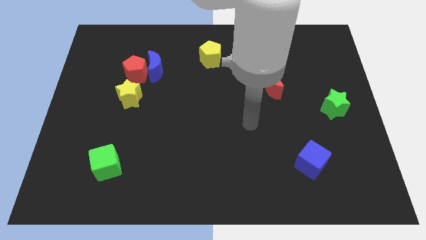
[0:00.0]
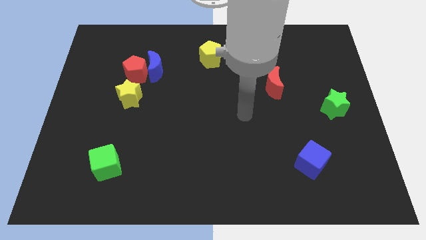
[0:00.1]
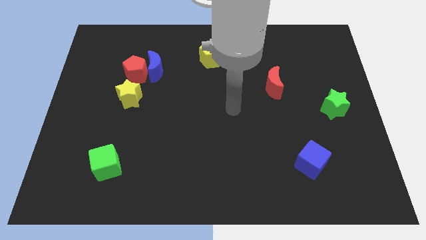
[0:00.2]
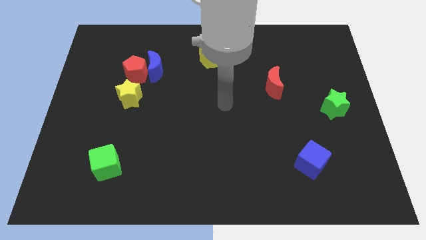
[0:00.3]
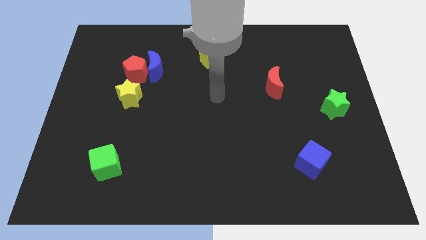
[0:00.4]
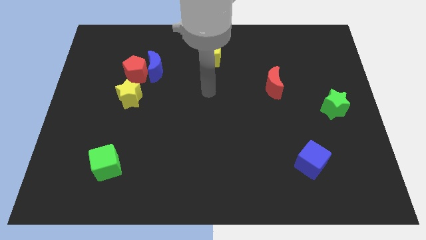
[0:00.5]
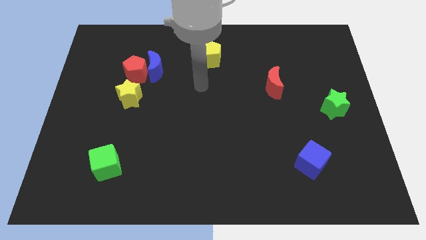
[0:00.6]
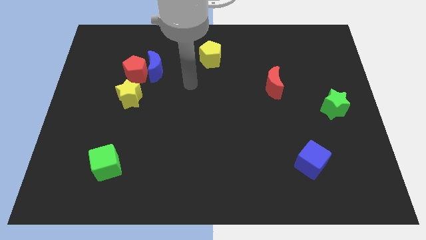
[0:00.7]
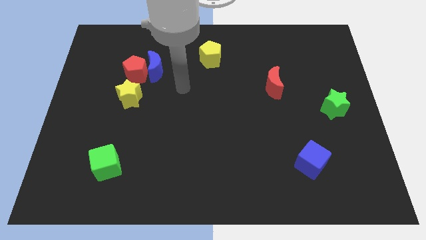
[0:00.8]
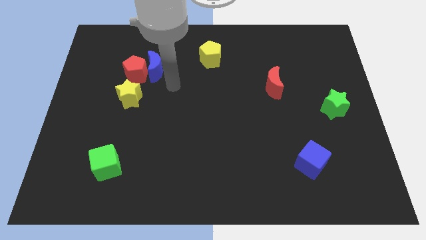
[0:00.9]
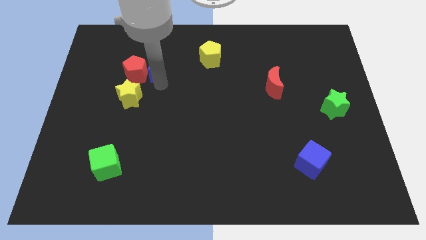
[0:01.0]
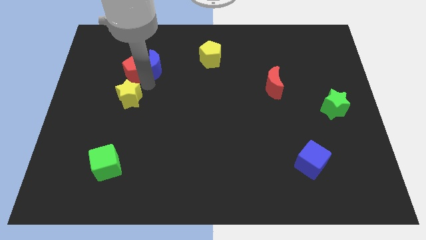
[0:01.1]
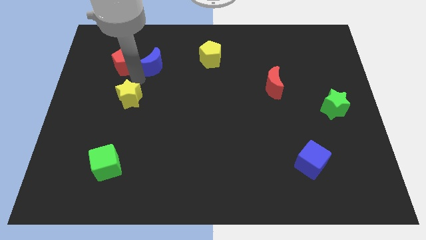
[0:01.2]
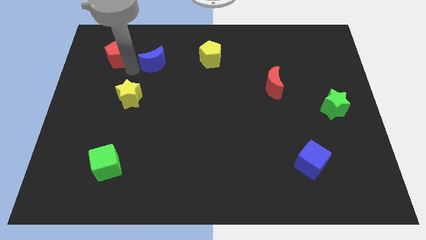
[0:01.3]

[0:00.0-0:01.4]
pull the blue moon apart from the red pentagon

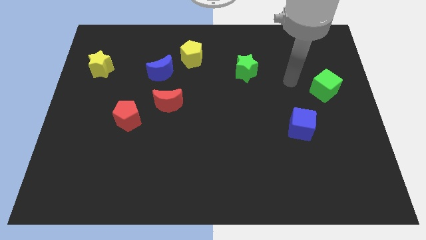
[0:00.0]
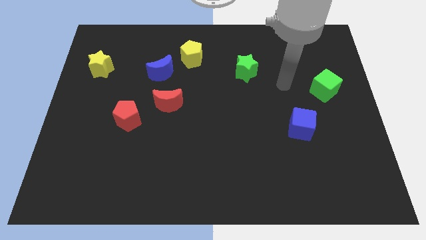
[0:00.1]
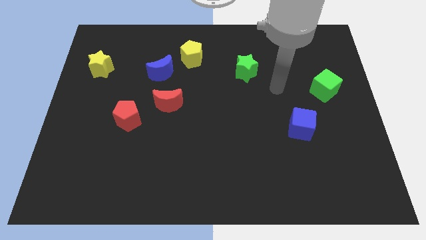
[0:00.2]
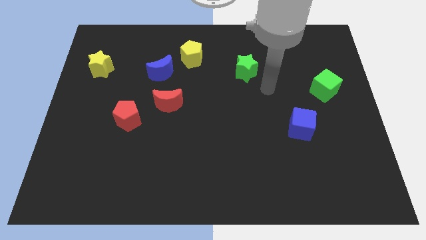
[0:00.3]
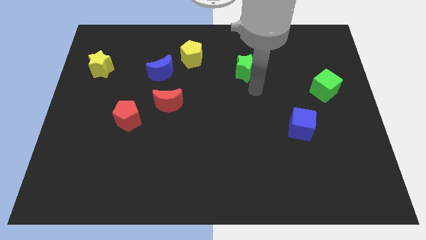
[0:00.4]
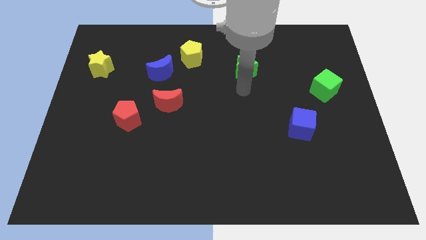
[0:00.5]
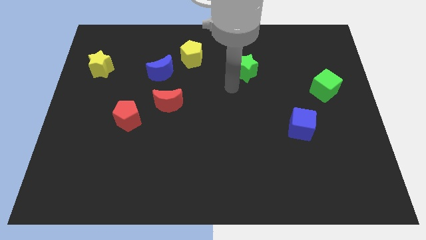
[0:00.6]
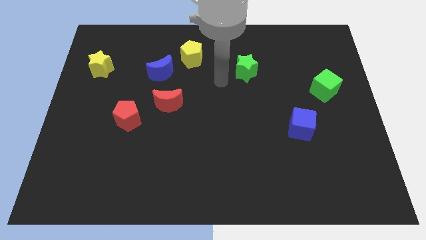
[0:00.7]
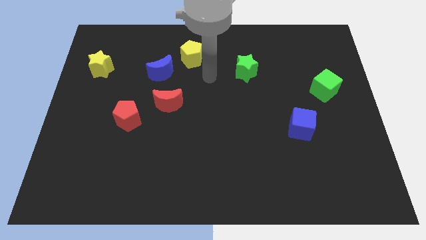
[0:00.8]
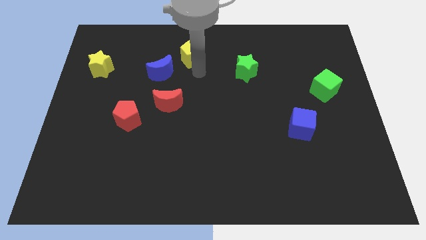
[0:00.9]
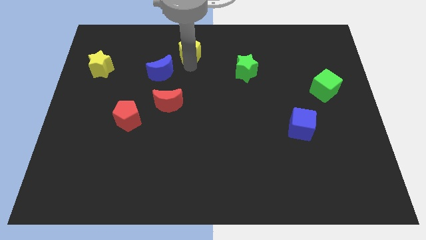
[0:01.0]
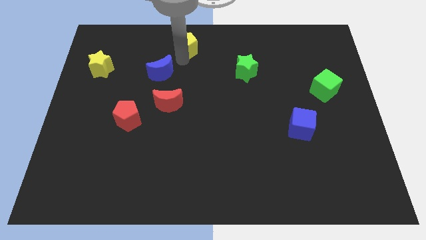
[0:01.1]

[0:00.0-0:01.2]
separate the blue moon from the yellow pentagon

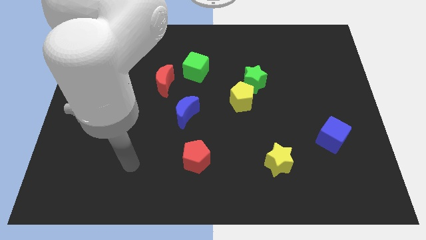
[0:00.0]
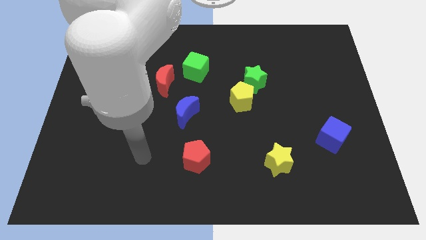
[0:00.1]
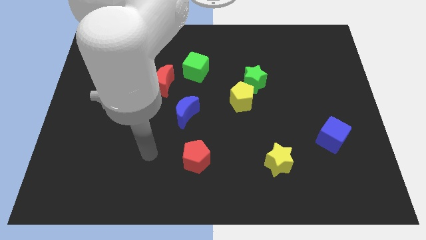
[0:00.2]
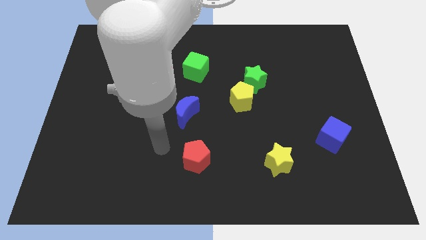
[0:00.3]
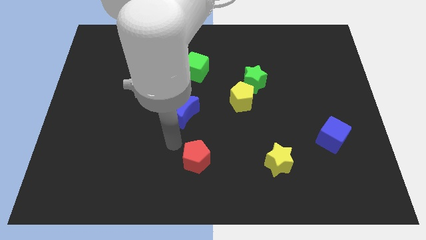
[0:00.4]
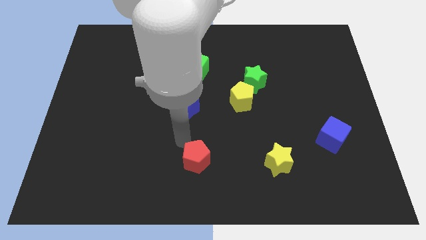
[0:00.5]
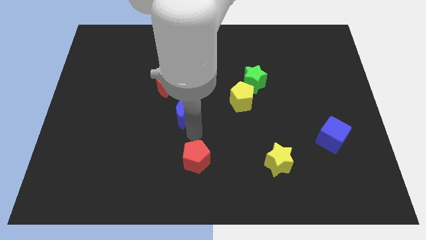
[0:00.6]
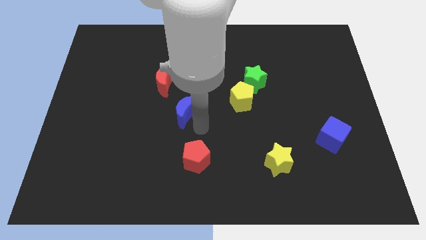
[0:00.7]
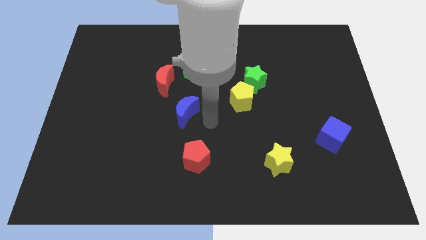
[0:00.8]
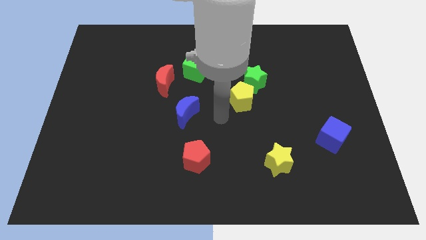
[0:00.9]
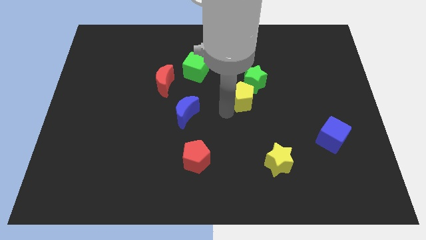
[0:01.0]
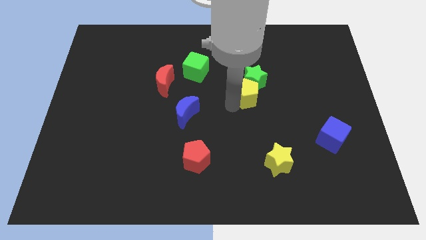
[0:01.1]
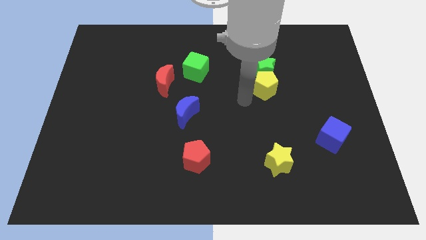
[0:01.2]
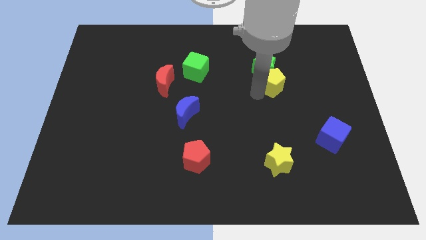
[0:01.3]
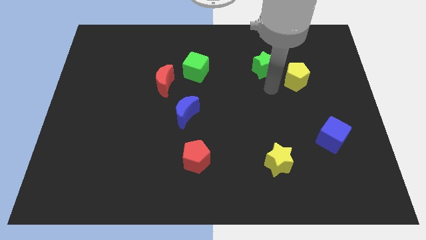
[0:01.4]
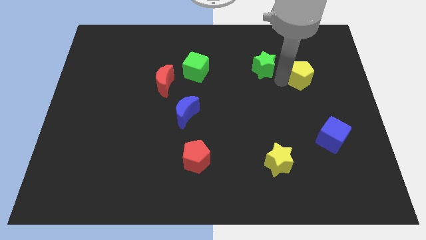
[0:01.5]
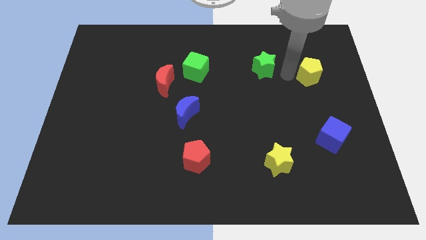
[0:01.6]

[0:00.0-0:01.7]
pull the green star apart from the yellow pentagon

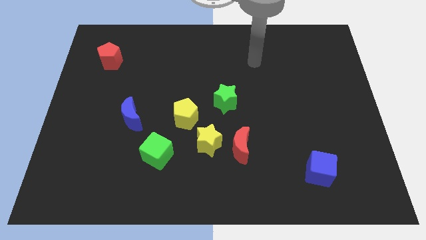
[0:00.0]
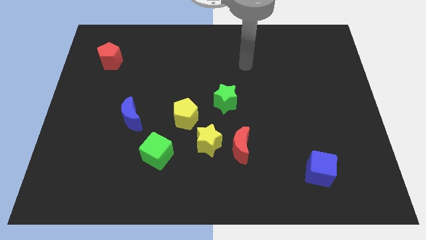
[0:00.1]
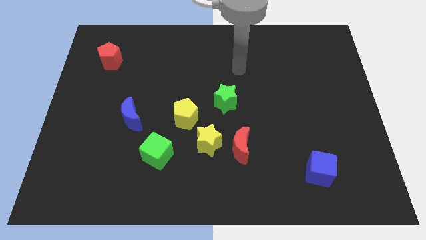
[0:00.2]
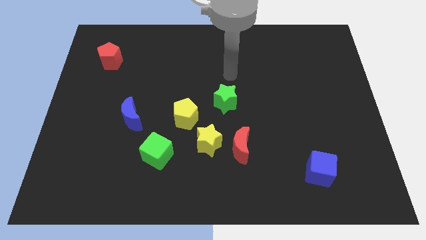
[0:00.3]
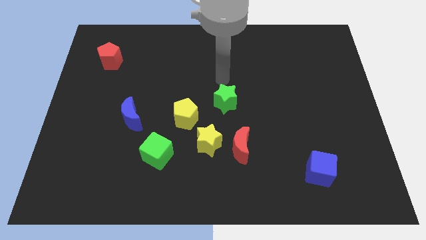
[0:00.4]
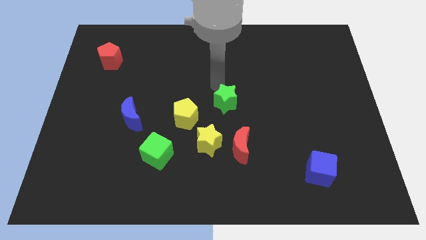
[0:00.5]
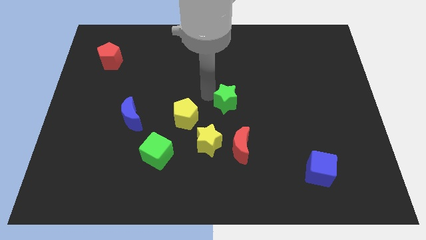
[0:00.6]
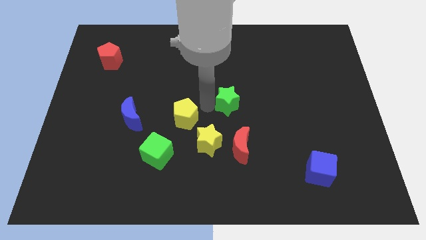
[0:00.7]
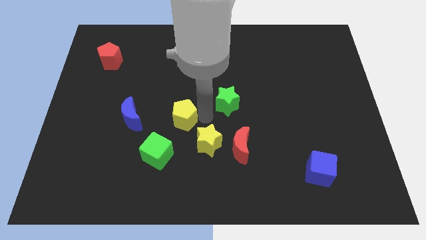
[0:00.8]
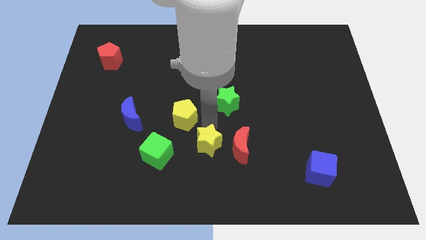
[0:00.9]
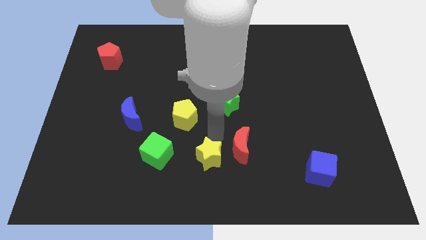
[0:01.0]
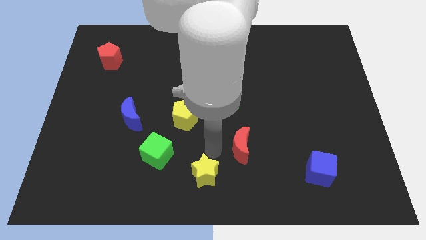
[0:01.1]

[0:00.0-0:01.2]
move the red moon away from the yellow star

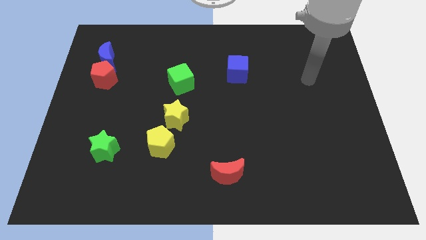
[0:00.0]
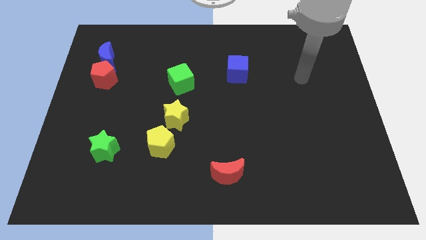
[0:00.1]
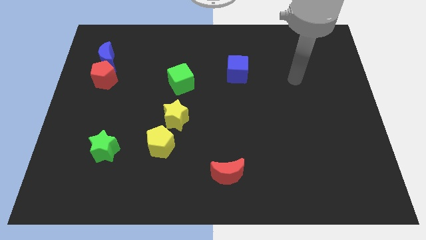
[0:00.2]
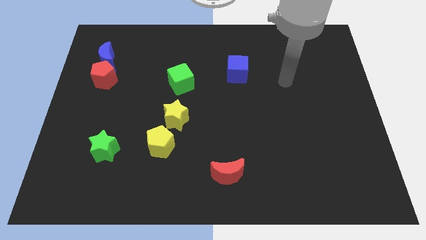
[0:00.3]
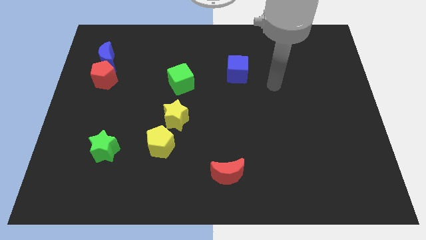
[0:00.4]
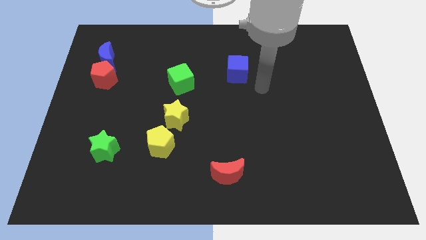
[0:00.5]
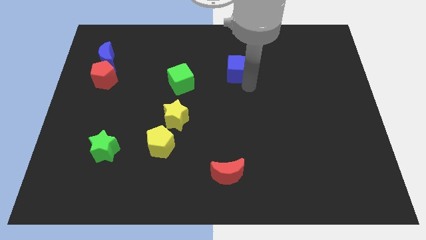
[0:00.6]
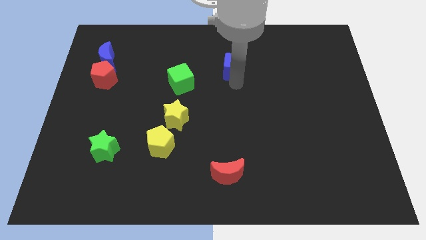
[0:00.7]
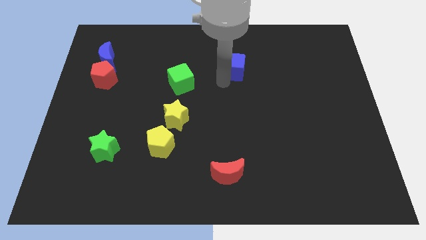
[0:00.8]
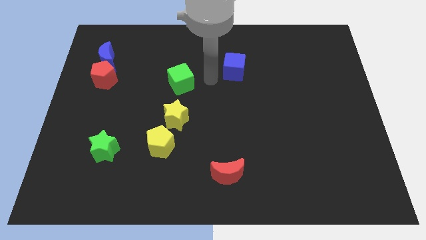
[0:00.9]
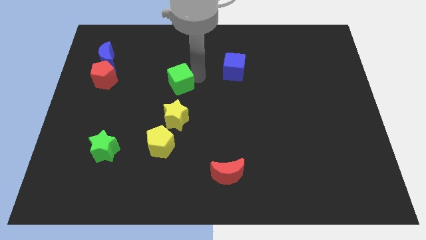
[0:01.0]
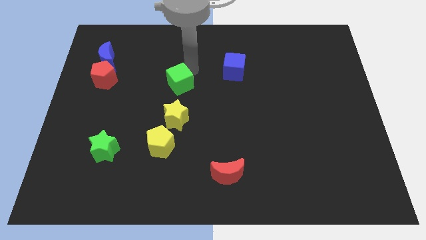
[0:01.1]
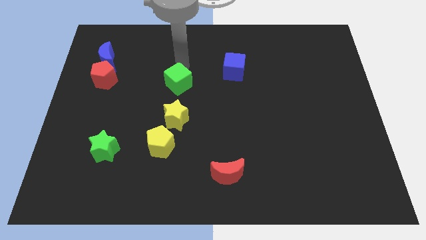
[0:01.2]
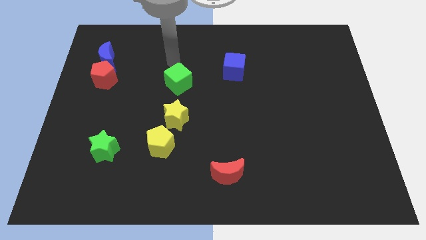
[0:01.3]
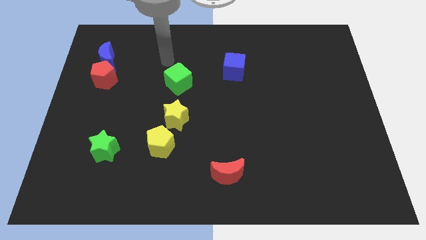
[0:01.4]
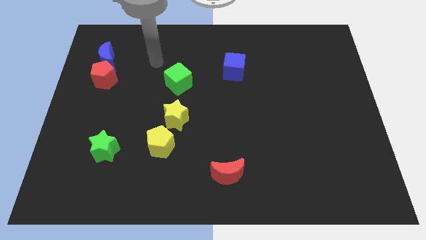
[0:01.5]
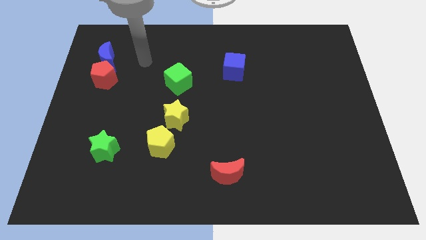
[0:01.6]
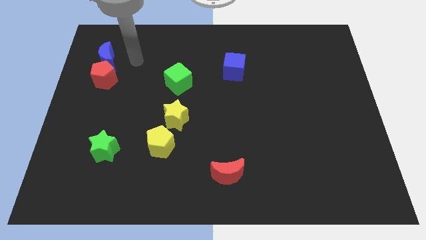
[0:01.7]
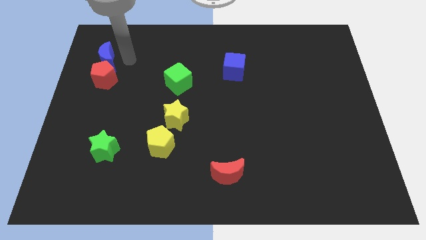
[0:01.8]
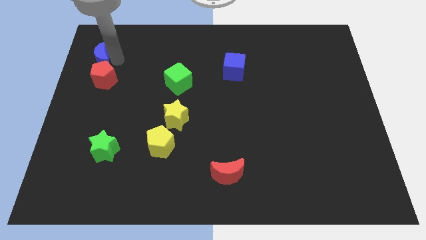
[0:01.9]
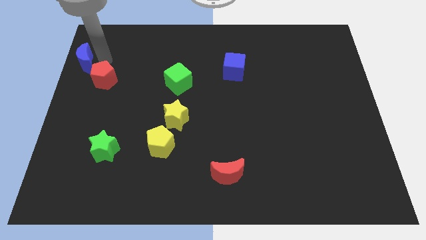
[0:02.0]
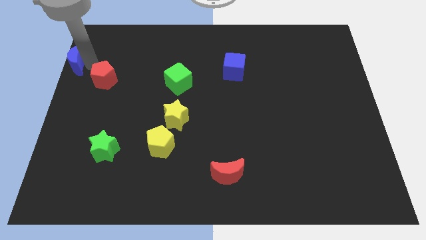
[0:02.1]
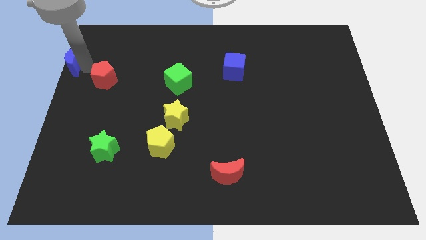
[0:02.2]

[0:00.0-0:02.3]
move the red pentagon away from the blue moon

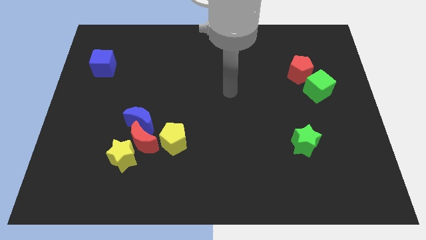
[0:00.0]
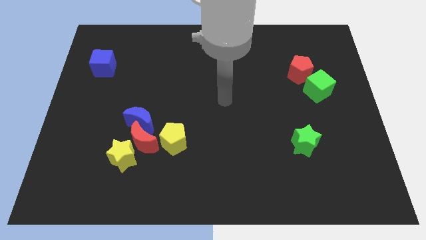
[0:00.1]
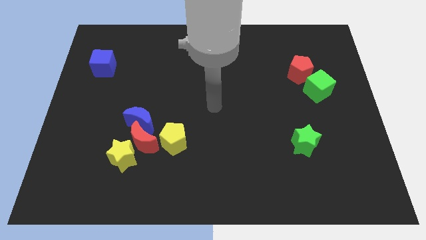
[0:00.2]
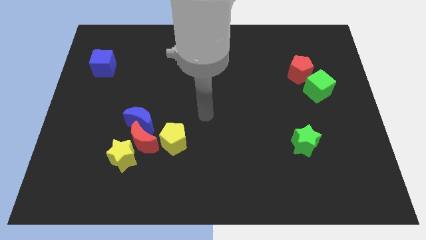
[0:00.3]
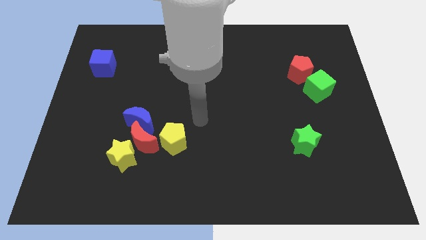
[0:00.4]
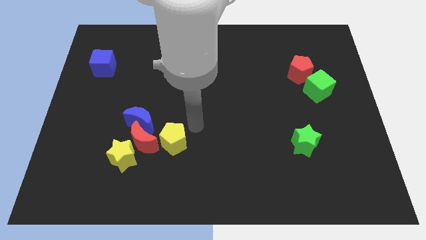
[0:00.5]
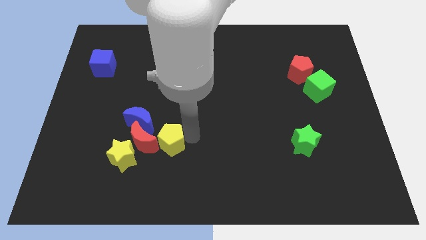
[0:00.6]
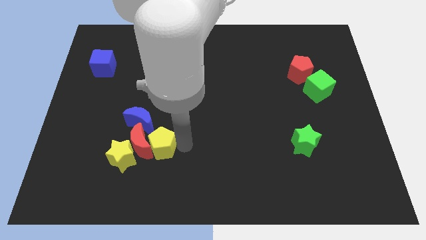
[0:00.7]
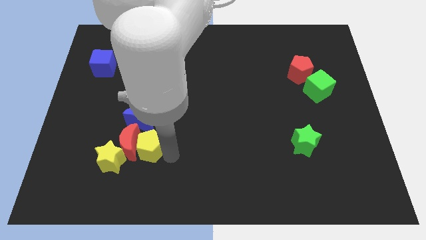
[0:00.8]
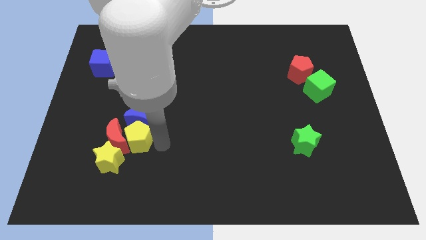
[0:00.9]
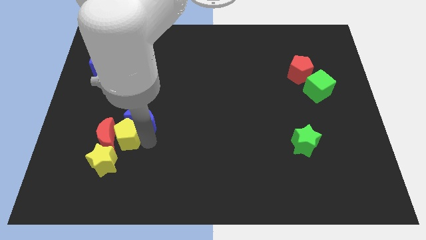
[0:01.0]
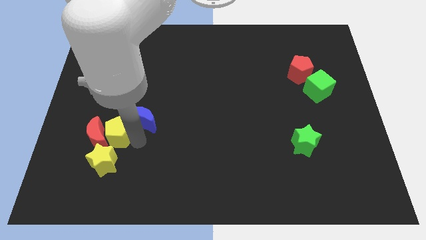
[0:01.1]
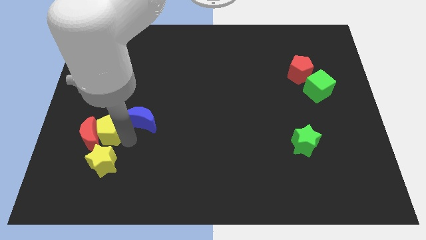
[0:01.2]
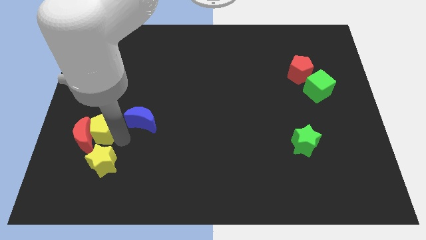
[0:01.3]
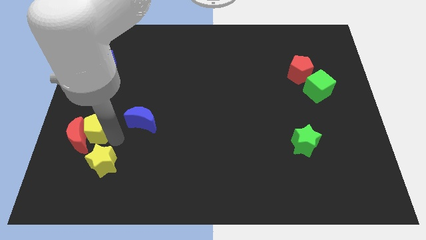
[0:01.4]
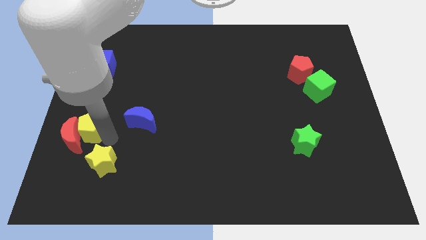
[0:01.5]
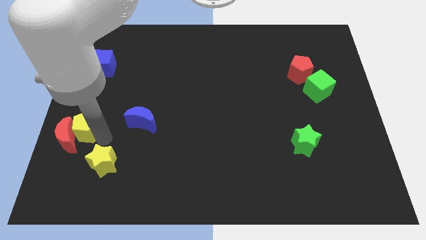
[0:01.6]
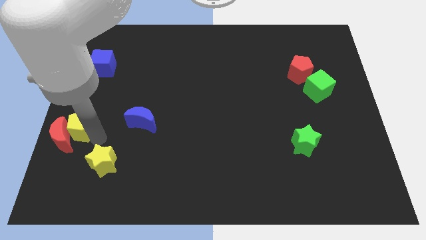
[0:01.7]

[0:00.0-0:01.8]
separate the red moon from the clump
